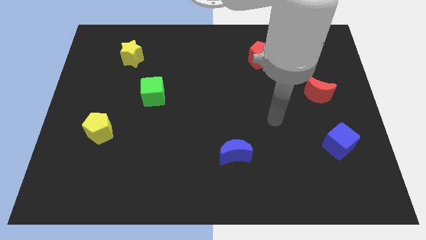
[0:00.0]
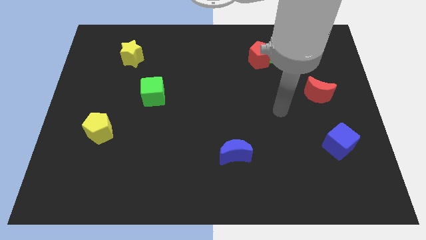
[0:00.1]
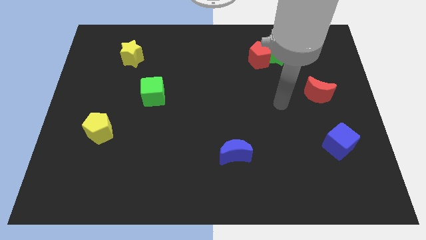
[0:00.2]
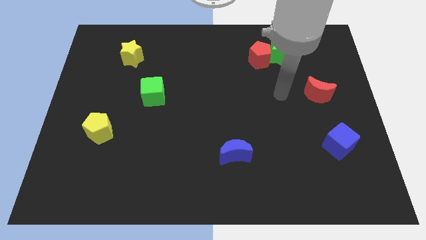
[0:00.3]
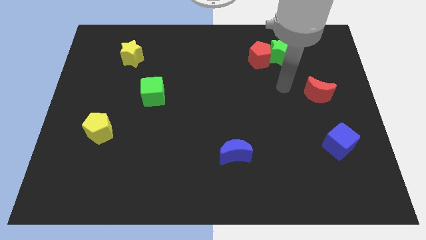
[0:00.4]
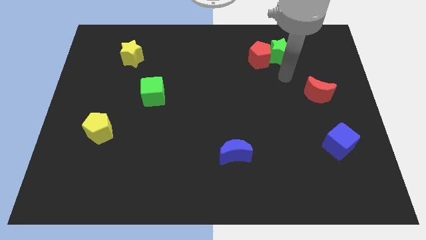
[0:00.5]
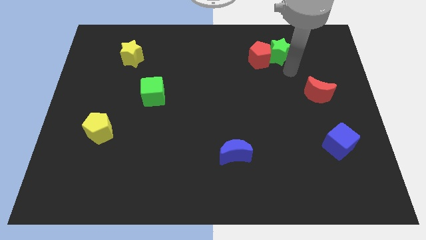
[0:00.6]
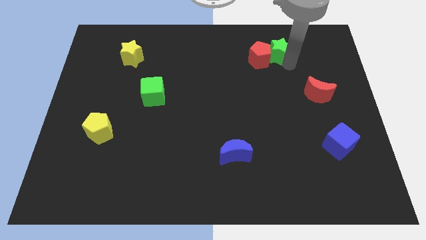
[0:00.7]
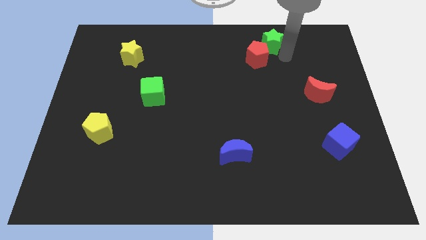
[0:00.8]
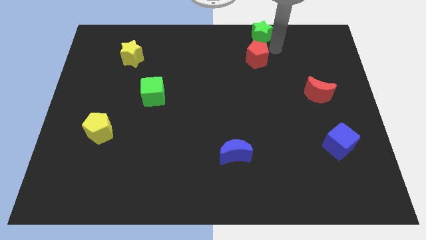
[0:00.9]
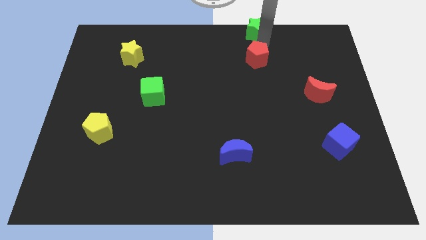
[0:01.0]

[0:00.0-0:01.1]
move the red pentagon away from the green star

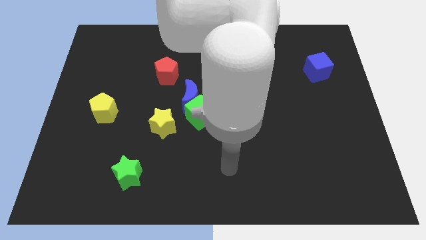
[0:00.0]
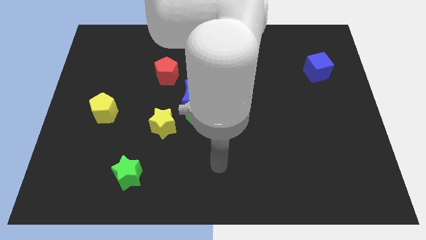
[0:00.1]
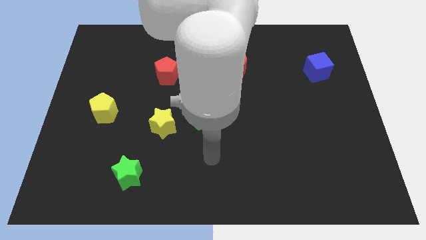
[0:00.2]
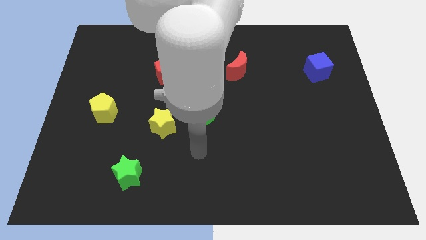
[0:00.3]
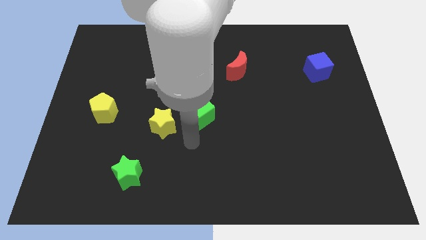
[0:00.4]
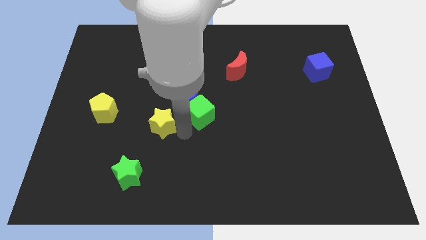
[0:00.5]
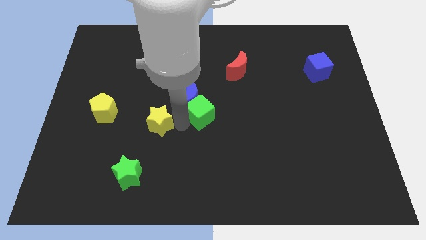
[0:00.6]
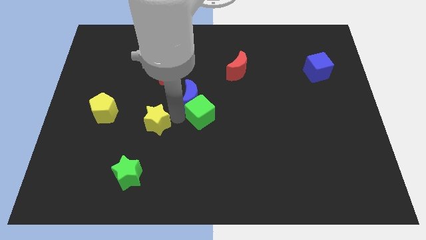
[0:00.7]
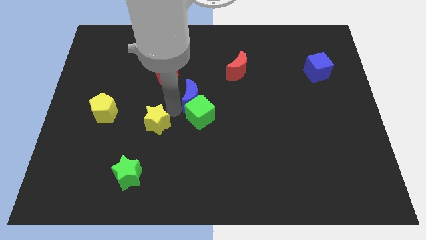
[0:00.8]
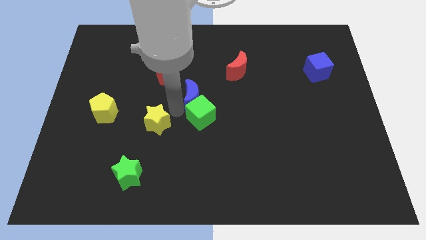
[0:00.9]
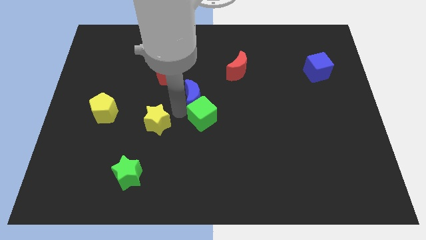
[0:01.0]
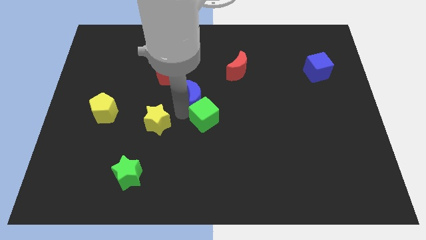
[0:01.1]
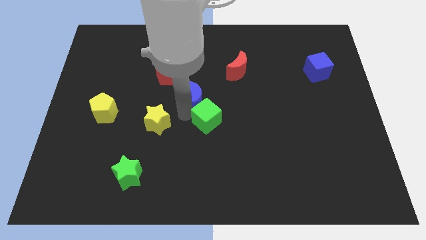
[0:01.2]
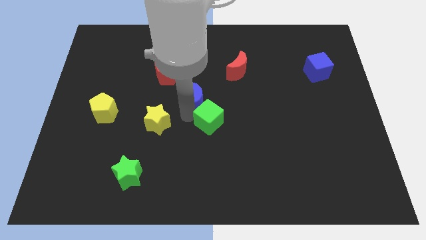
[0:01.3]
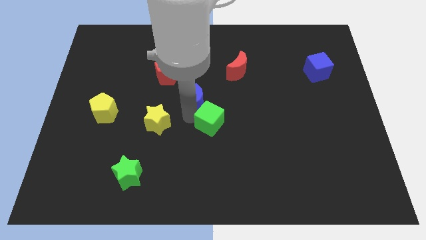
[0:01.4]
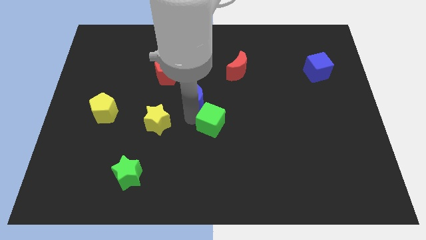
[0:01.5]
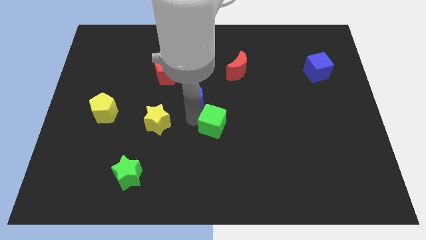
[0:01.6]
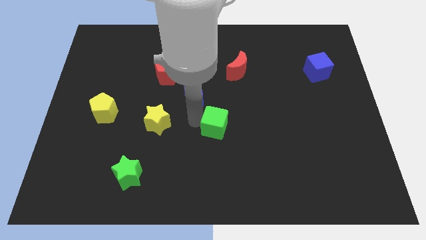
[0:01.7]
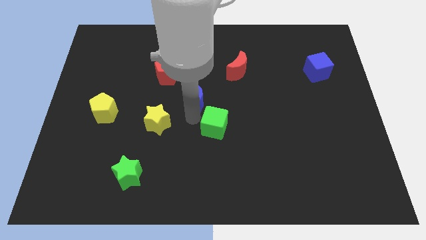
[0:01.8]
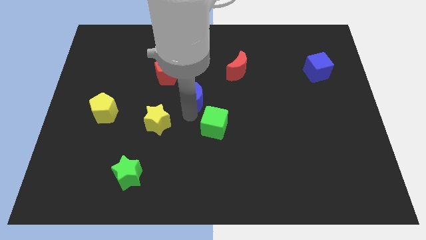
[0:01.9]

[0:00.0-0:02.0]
separate the green cube from the blue moon and yellow star

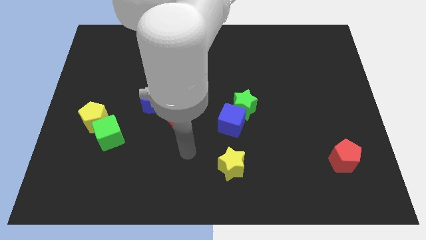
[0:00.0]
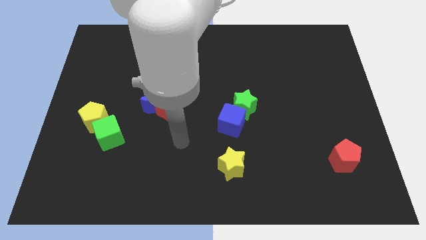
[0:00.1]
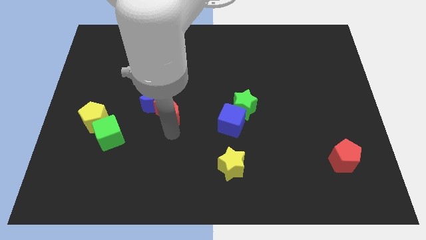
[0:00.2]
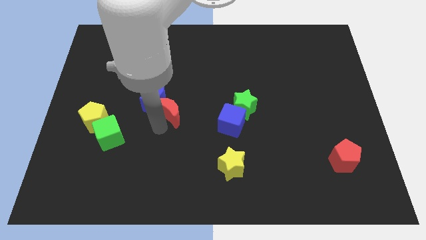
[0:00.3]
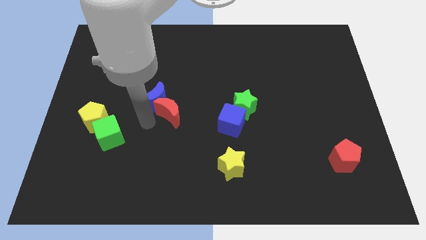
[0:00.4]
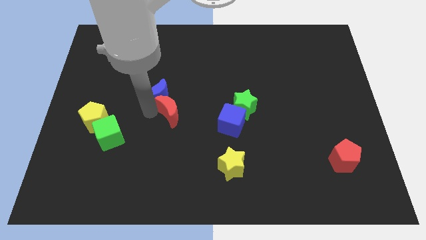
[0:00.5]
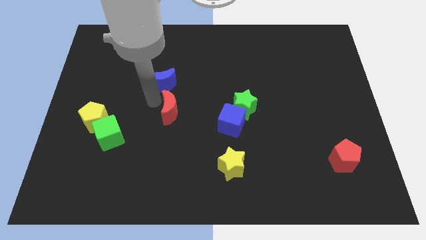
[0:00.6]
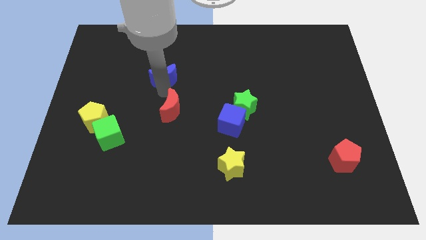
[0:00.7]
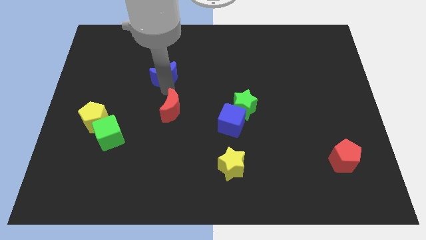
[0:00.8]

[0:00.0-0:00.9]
separate the red moon from the blue moon

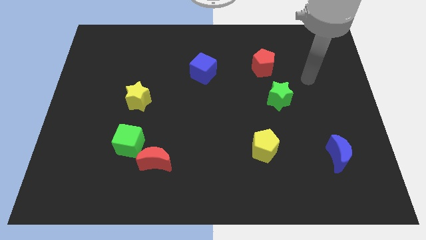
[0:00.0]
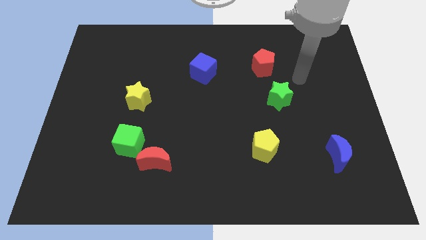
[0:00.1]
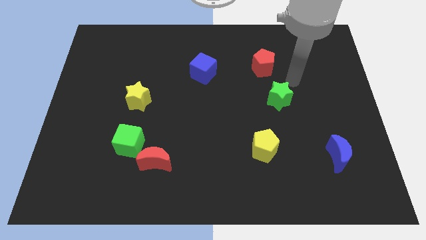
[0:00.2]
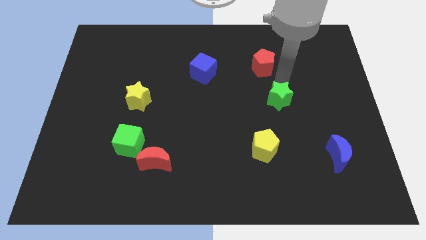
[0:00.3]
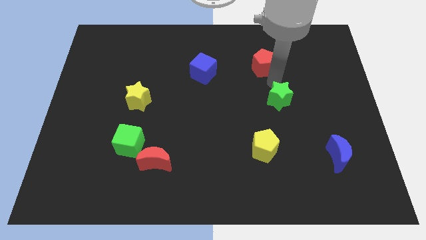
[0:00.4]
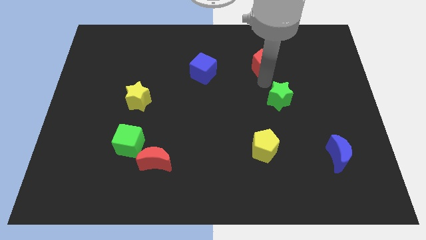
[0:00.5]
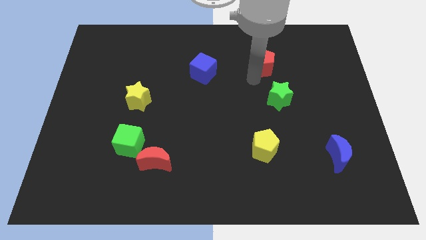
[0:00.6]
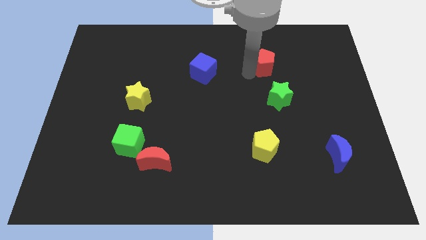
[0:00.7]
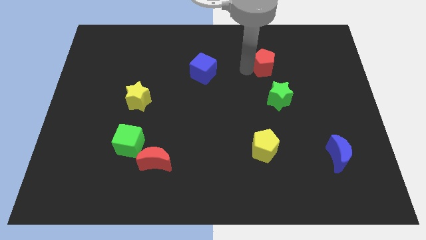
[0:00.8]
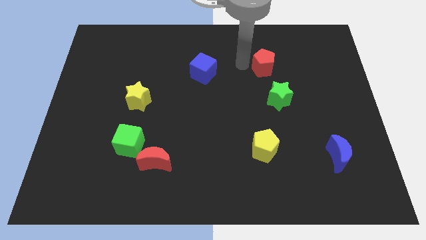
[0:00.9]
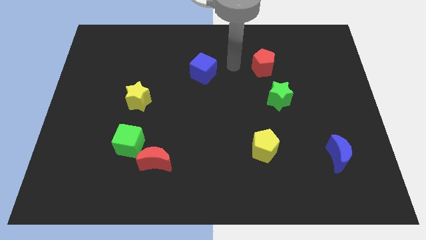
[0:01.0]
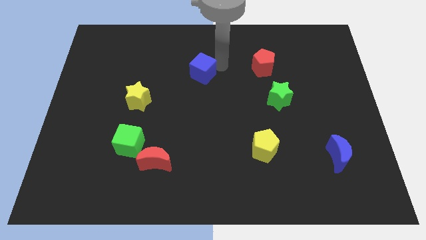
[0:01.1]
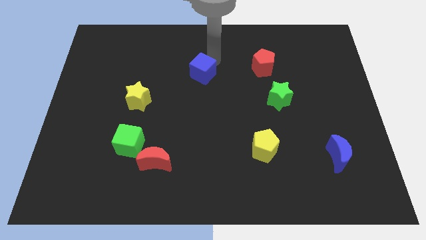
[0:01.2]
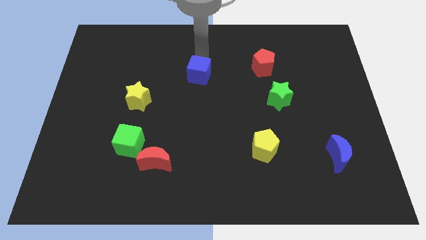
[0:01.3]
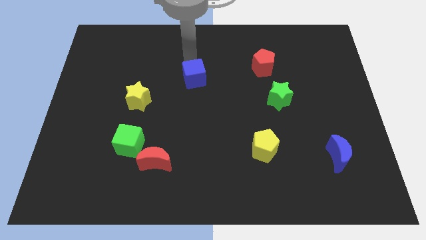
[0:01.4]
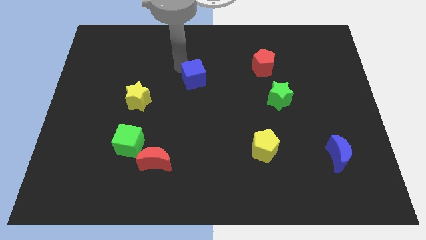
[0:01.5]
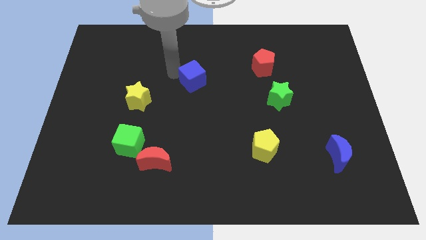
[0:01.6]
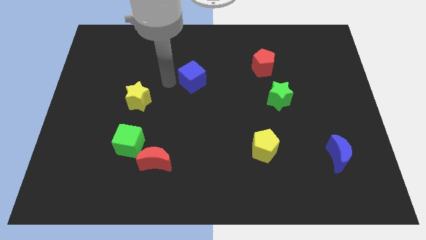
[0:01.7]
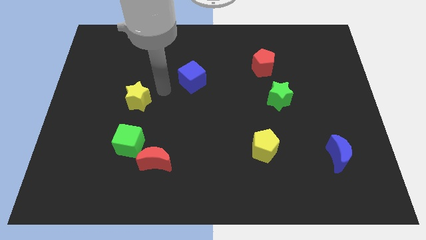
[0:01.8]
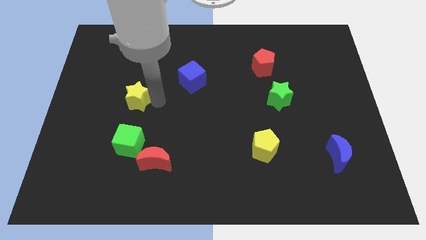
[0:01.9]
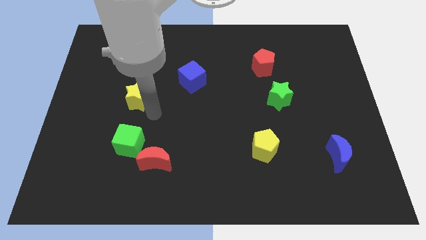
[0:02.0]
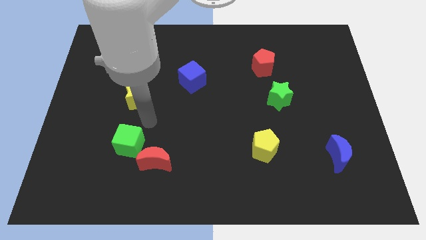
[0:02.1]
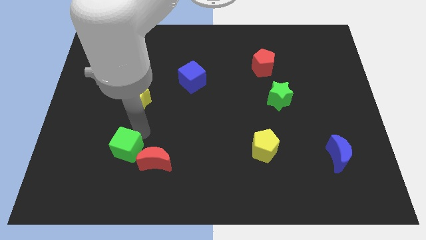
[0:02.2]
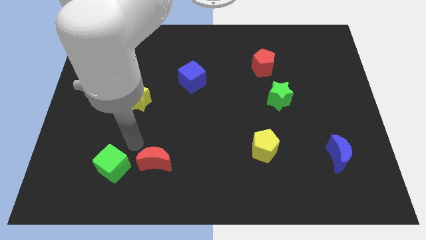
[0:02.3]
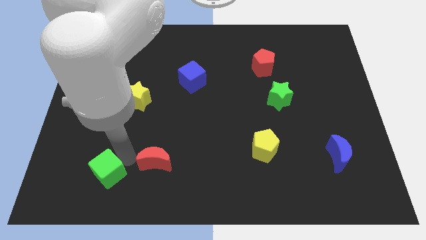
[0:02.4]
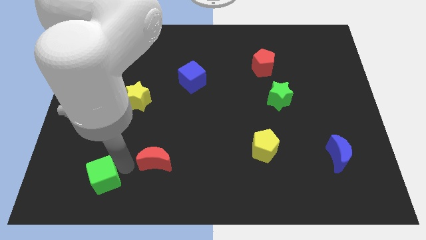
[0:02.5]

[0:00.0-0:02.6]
move the red moon away from the green cube

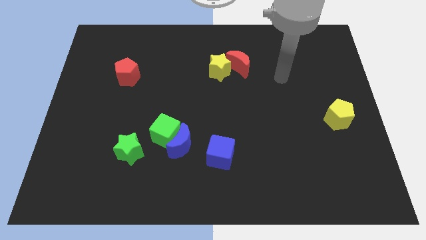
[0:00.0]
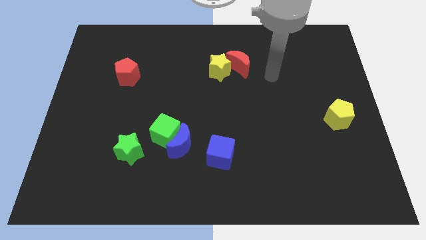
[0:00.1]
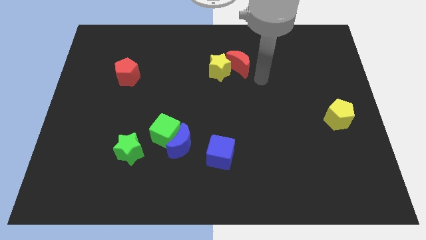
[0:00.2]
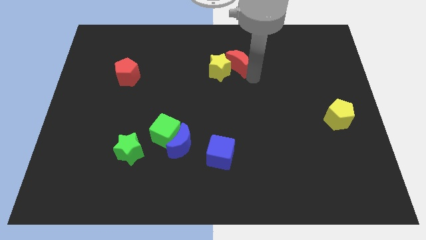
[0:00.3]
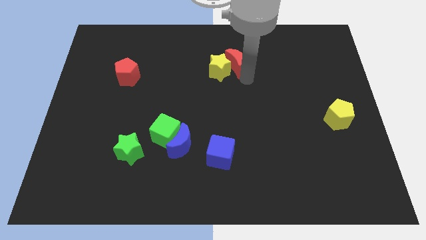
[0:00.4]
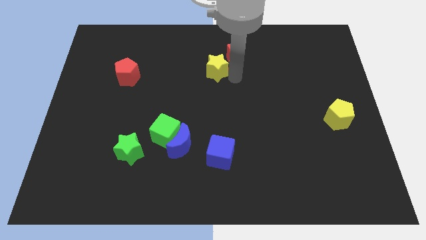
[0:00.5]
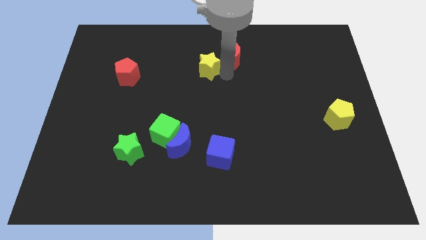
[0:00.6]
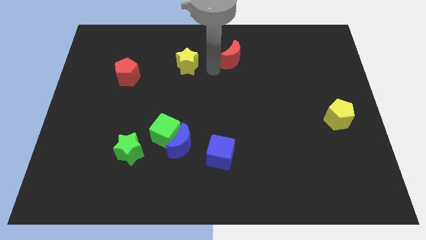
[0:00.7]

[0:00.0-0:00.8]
separate the red moon from the yellow star

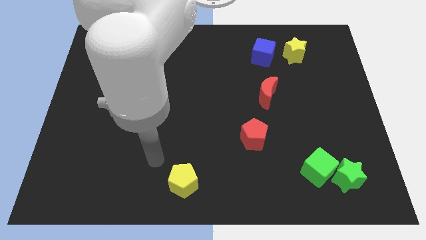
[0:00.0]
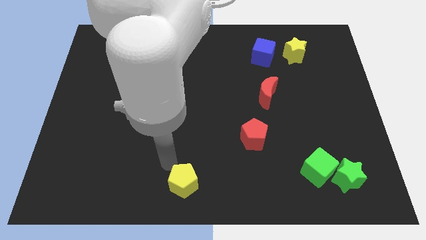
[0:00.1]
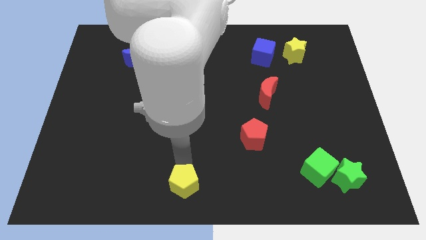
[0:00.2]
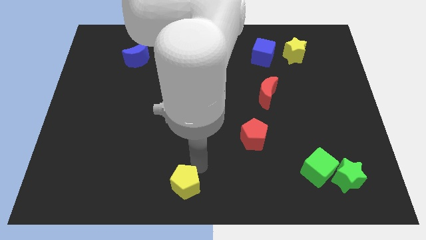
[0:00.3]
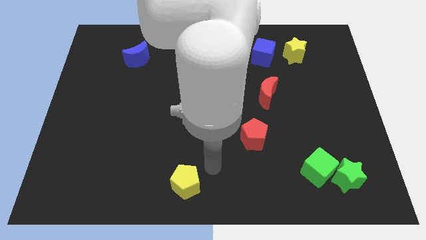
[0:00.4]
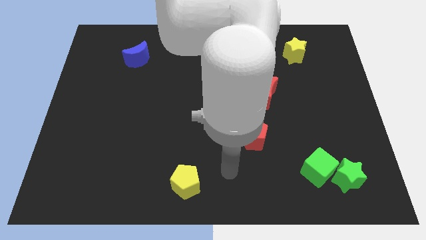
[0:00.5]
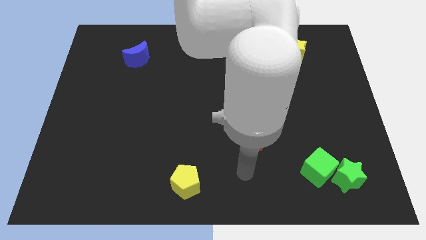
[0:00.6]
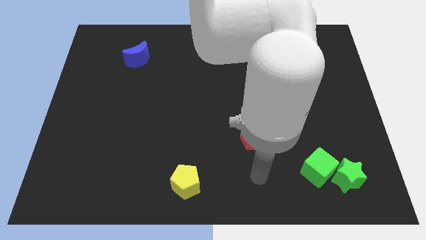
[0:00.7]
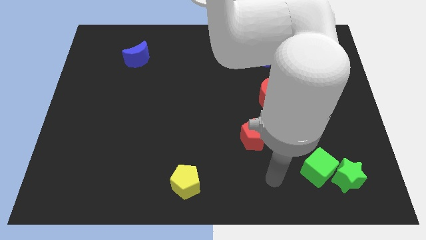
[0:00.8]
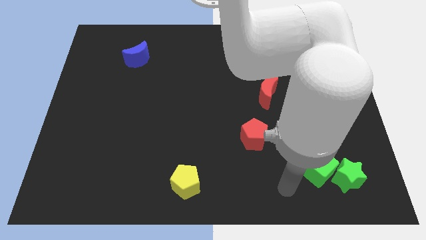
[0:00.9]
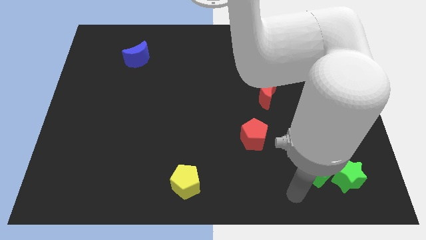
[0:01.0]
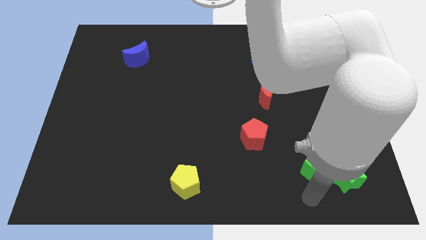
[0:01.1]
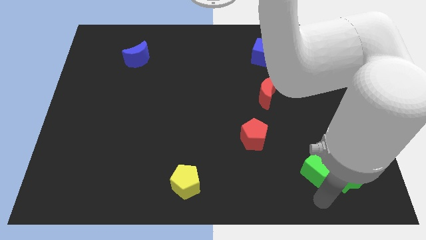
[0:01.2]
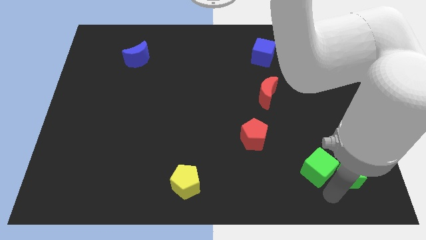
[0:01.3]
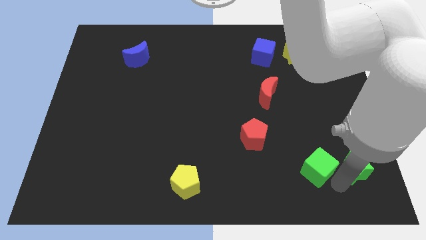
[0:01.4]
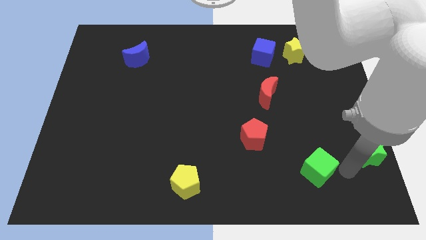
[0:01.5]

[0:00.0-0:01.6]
move the green cube away from the green star

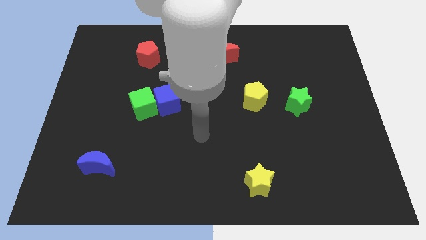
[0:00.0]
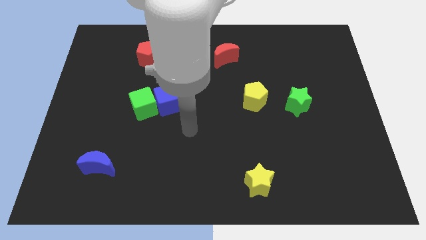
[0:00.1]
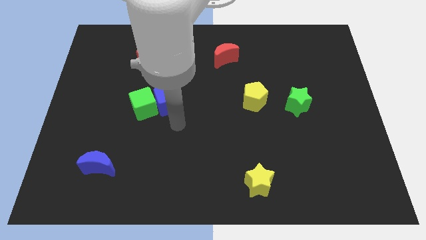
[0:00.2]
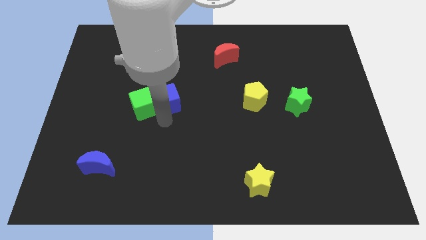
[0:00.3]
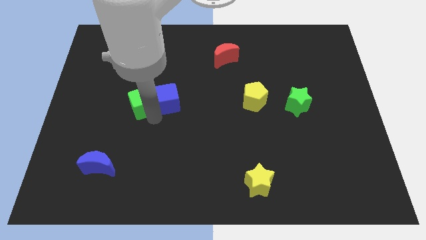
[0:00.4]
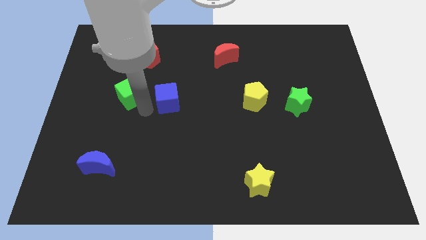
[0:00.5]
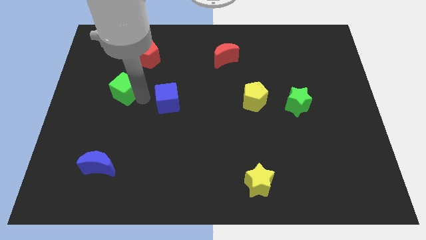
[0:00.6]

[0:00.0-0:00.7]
separate the blue cube from the green cube
